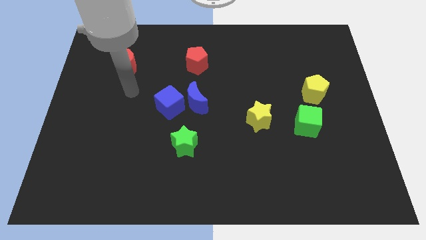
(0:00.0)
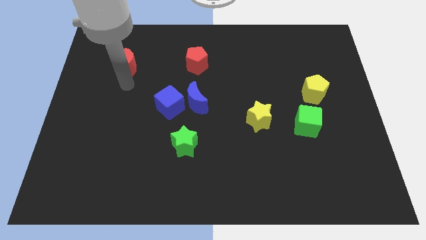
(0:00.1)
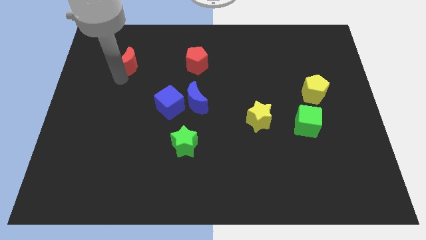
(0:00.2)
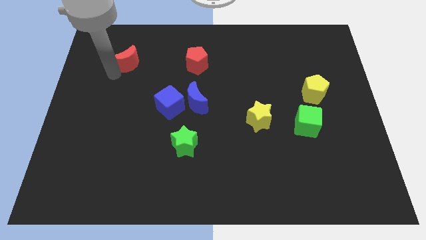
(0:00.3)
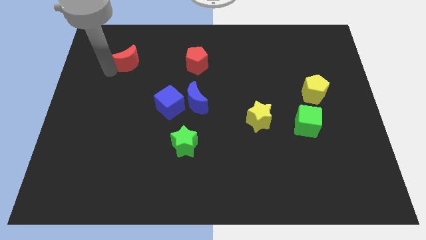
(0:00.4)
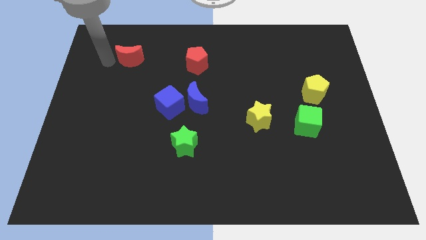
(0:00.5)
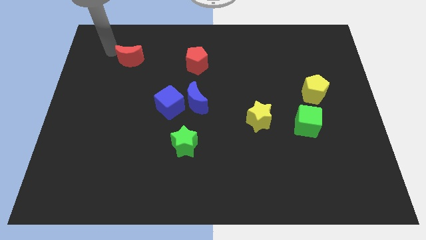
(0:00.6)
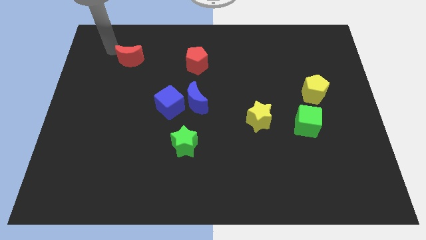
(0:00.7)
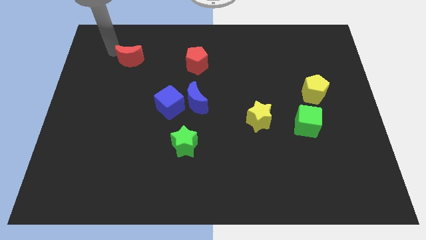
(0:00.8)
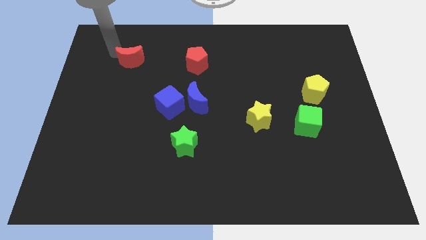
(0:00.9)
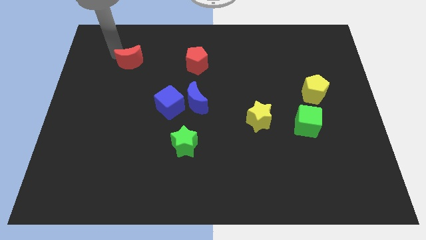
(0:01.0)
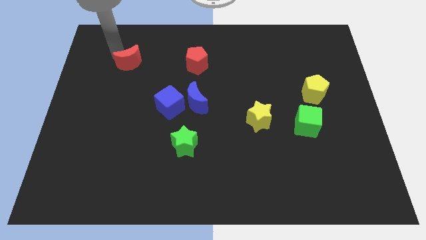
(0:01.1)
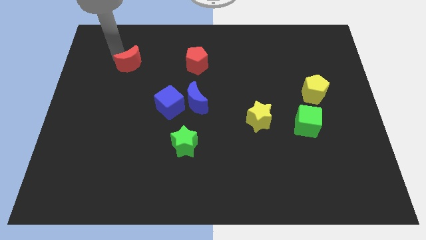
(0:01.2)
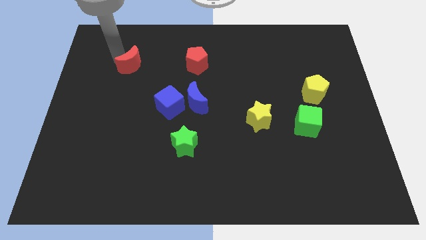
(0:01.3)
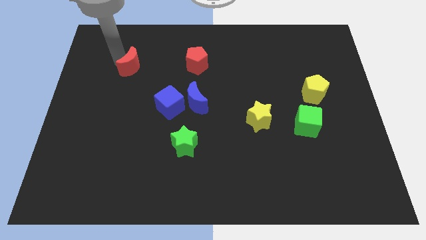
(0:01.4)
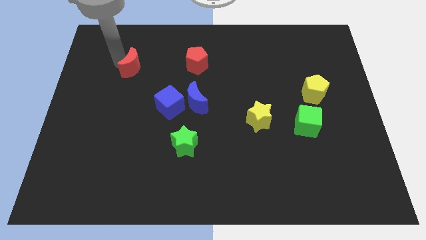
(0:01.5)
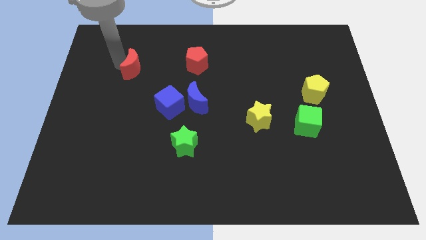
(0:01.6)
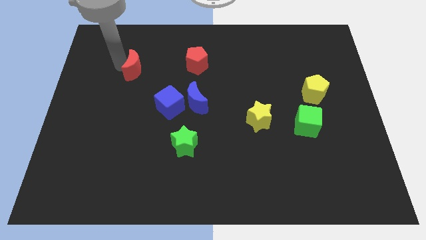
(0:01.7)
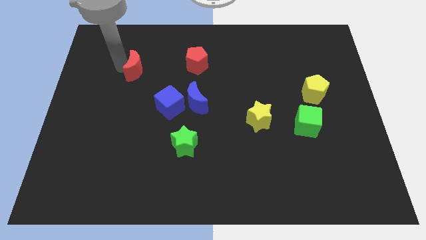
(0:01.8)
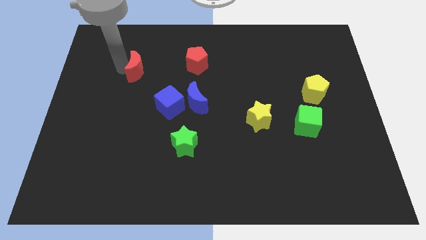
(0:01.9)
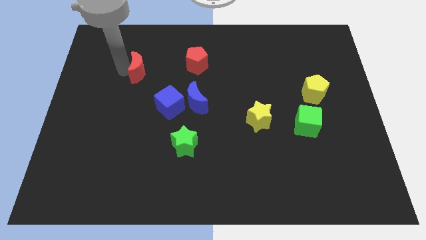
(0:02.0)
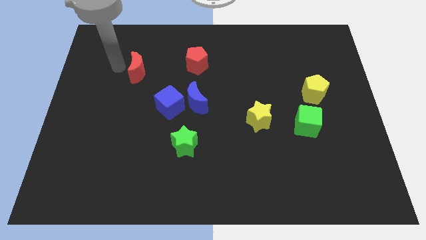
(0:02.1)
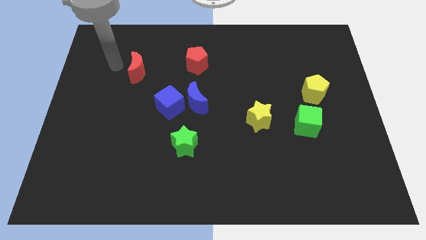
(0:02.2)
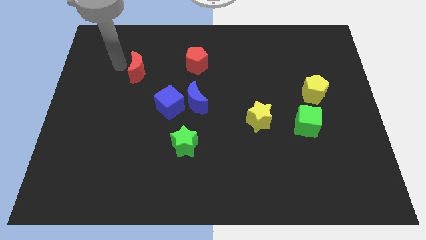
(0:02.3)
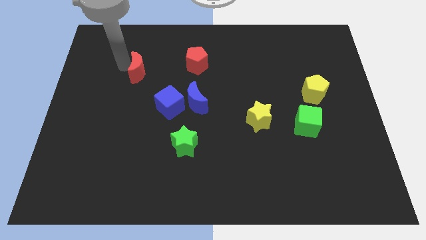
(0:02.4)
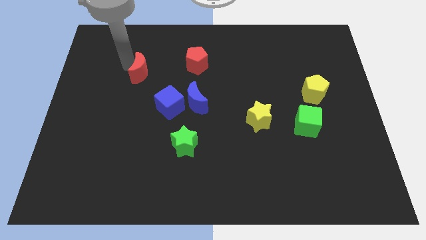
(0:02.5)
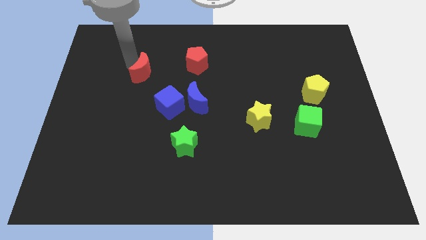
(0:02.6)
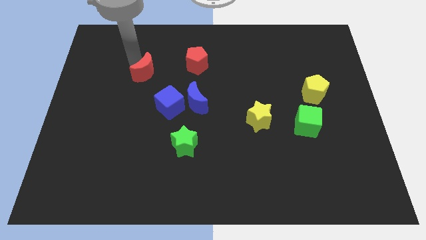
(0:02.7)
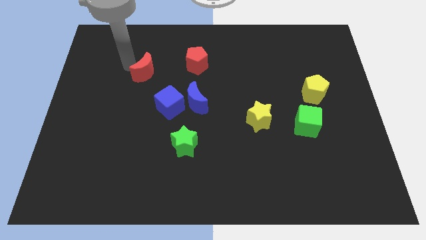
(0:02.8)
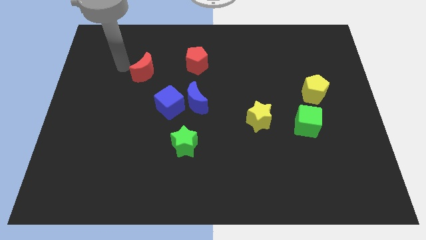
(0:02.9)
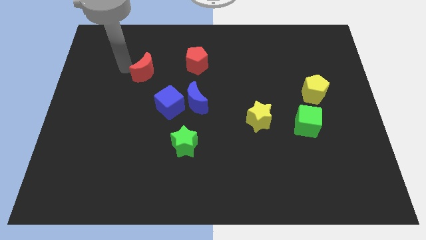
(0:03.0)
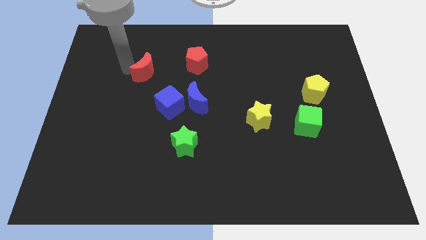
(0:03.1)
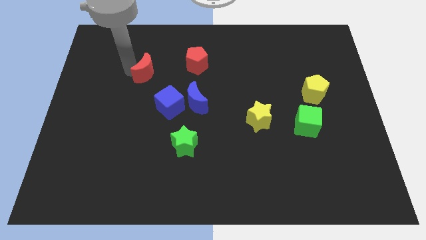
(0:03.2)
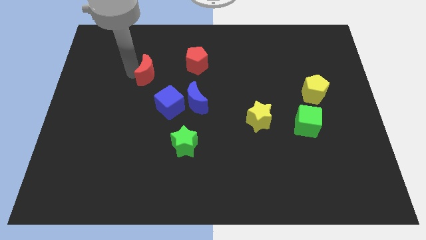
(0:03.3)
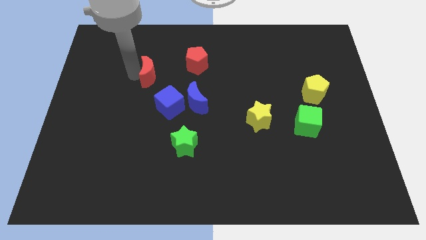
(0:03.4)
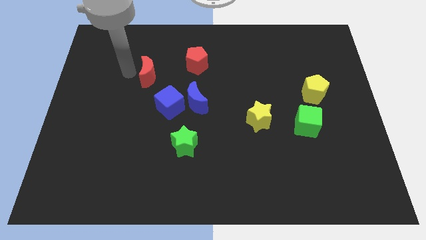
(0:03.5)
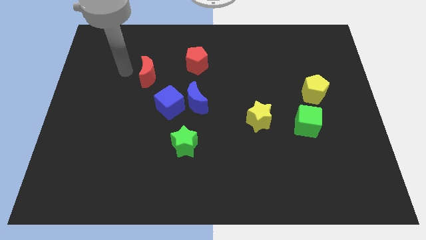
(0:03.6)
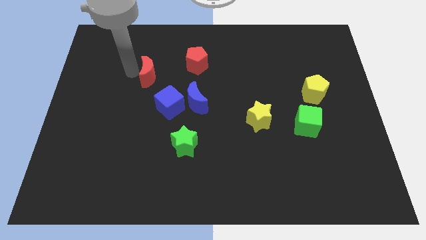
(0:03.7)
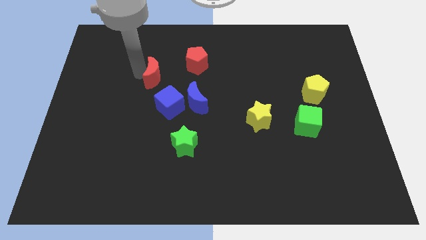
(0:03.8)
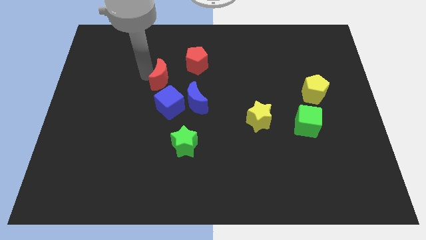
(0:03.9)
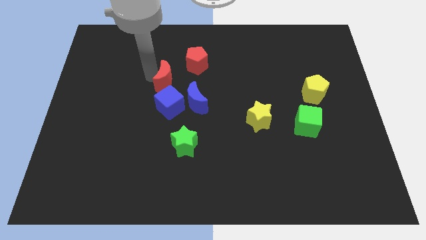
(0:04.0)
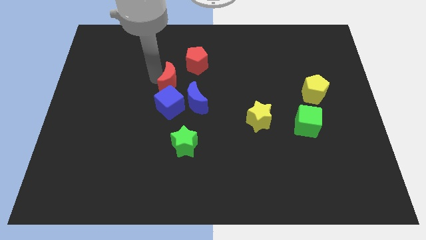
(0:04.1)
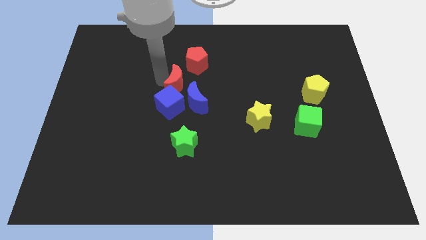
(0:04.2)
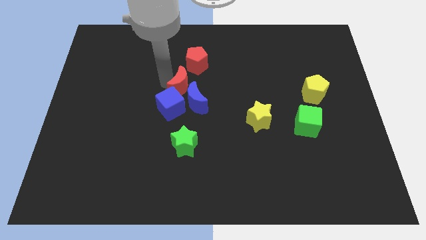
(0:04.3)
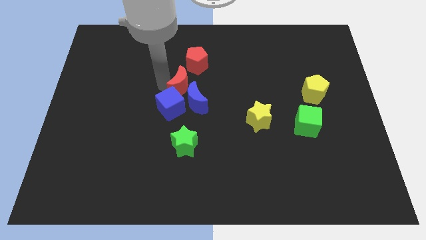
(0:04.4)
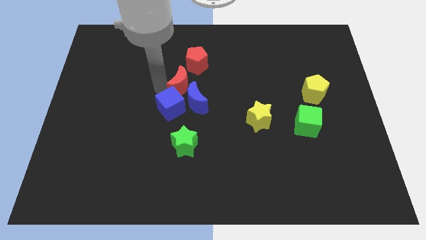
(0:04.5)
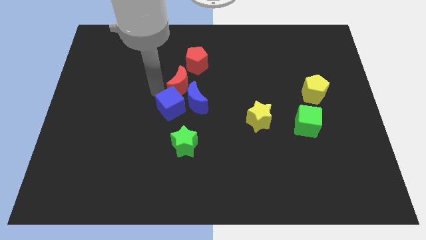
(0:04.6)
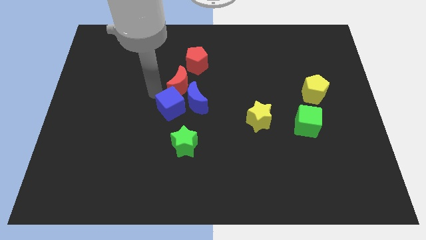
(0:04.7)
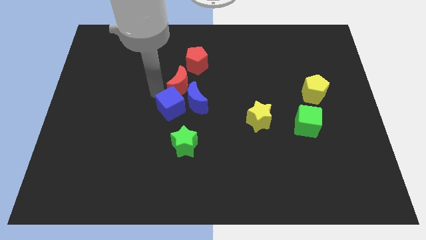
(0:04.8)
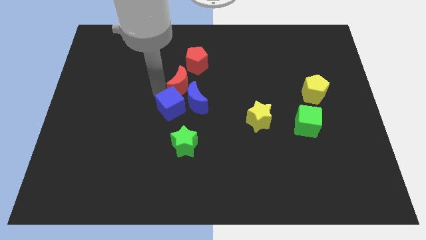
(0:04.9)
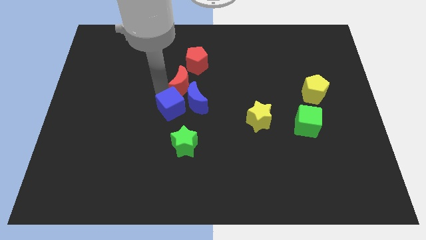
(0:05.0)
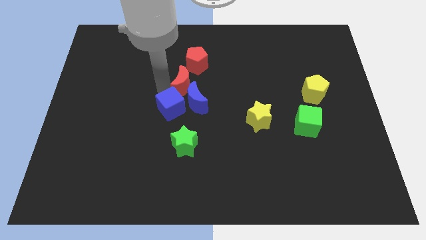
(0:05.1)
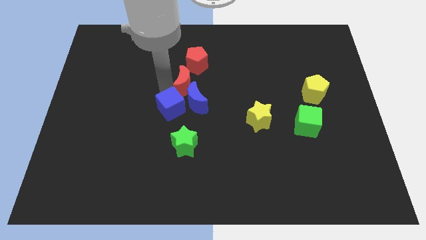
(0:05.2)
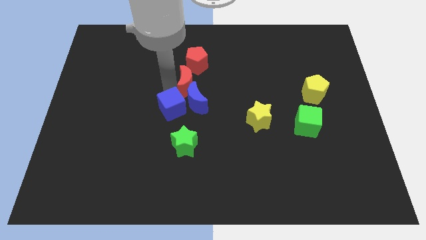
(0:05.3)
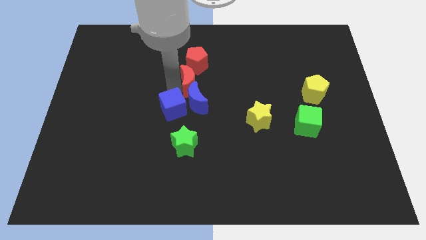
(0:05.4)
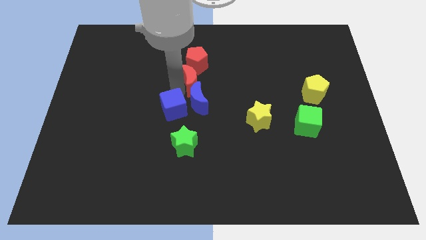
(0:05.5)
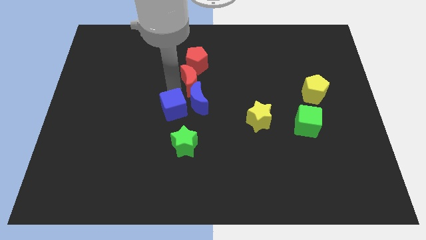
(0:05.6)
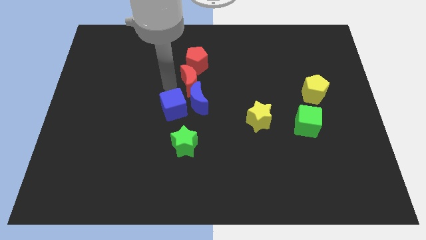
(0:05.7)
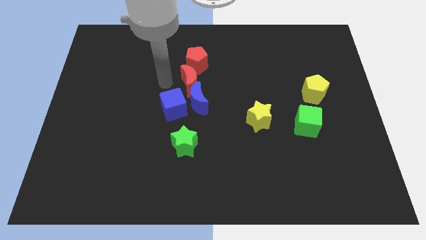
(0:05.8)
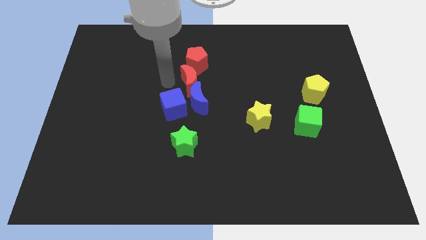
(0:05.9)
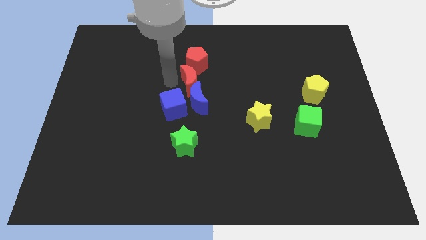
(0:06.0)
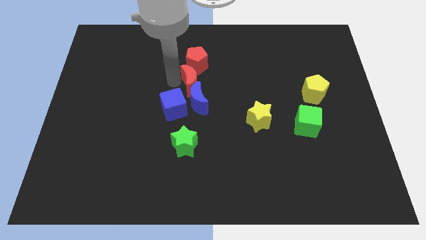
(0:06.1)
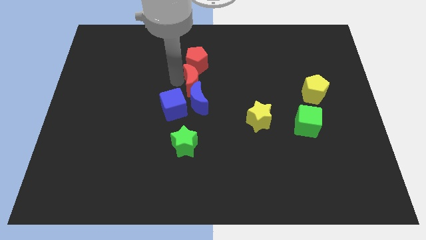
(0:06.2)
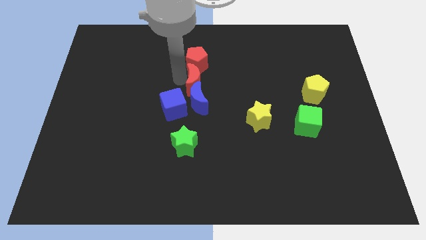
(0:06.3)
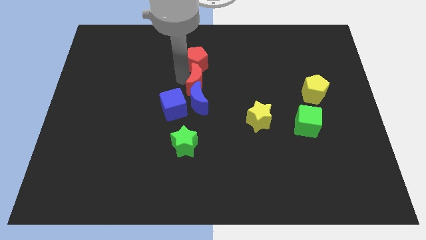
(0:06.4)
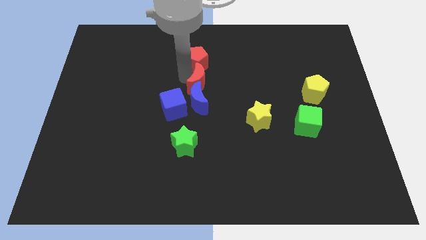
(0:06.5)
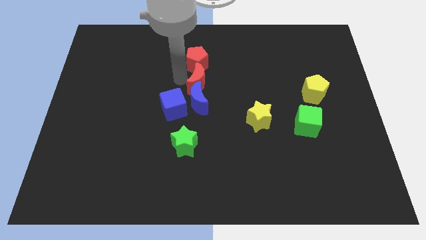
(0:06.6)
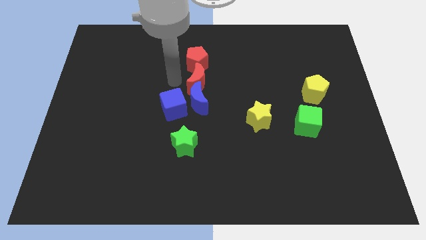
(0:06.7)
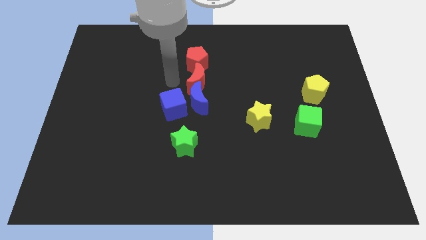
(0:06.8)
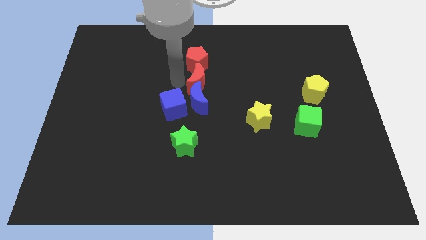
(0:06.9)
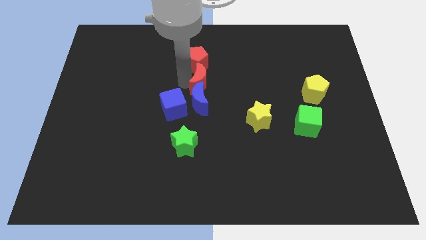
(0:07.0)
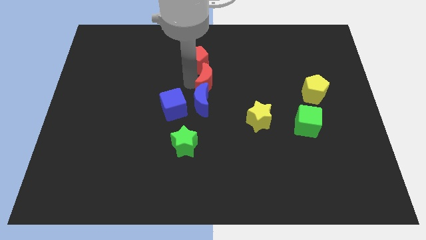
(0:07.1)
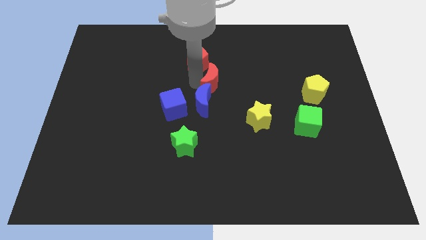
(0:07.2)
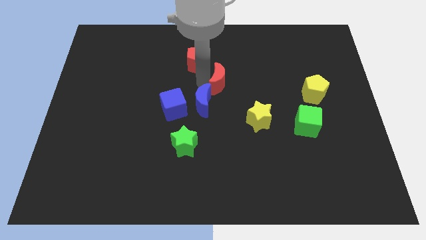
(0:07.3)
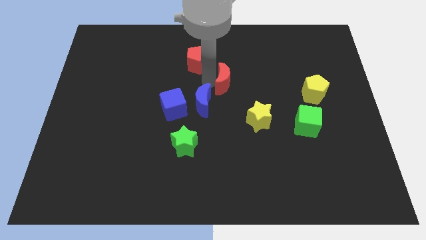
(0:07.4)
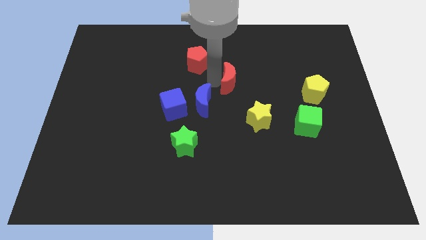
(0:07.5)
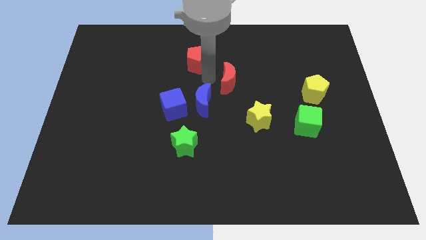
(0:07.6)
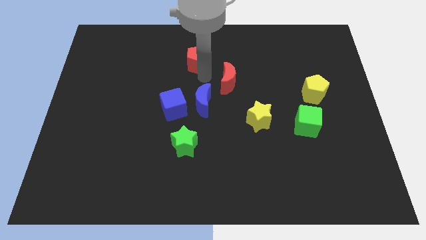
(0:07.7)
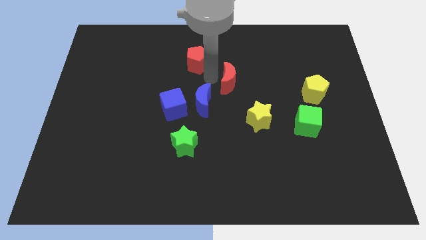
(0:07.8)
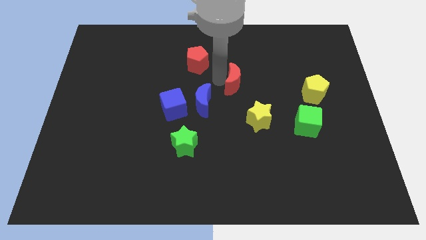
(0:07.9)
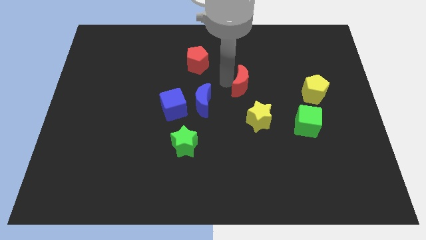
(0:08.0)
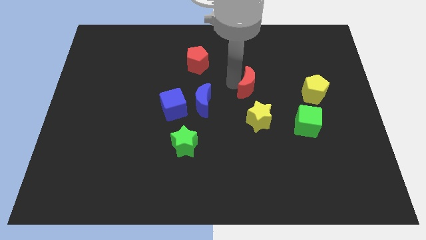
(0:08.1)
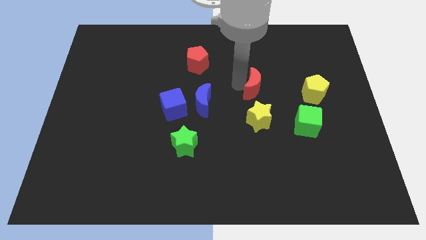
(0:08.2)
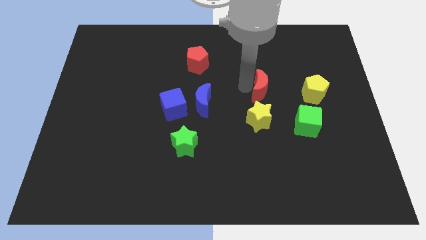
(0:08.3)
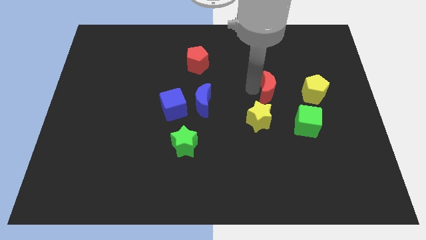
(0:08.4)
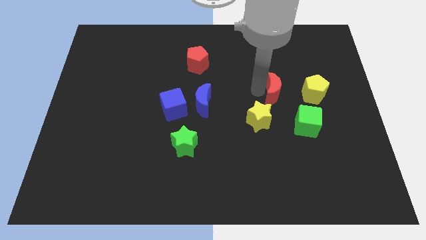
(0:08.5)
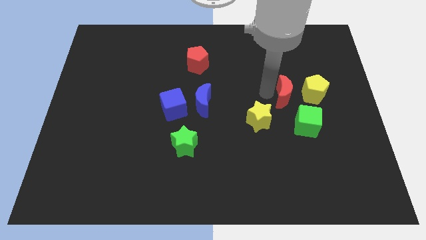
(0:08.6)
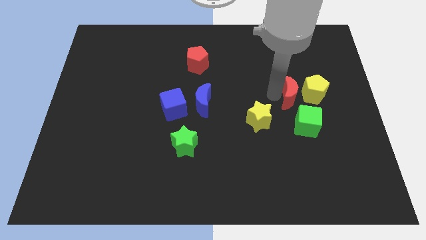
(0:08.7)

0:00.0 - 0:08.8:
push the red moon next to the yellow pentagon
